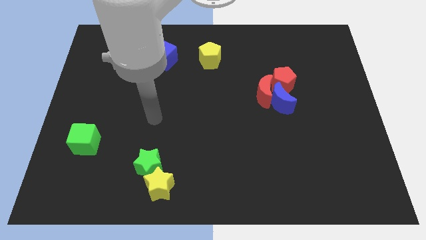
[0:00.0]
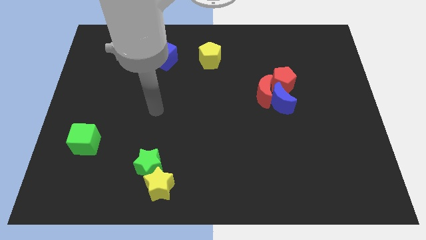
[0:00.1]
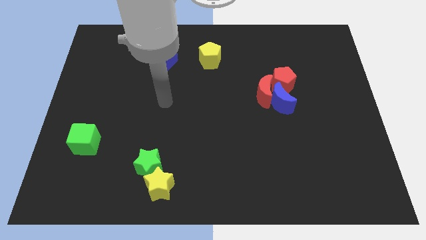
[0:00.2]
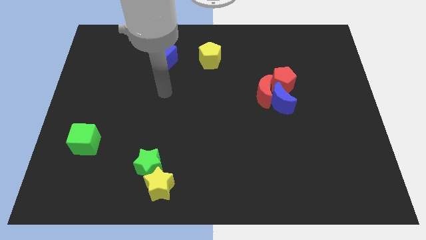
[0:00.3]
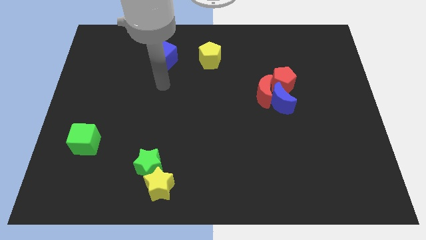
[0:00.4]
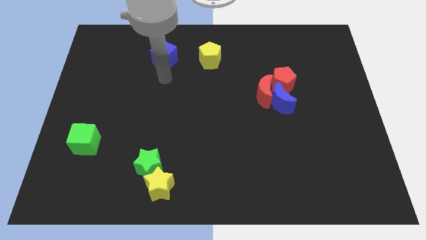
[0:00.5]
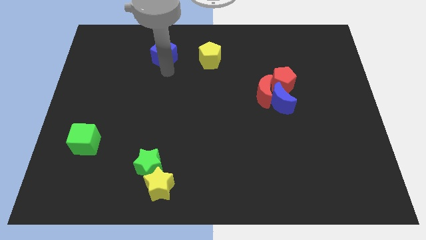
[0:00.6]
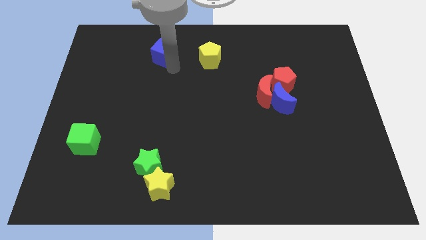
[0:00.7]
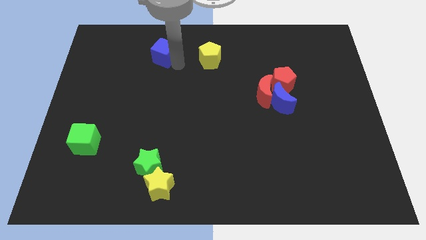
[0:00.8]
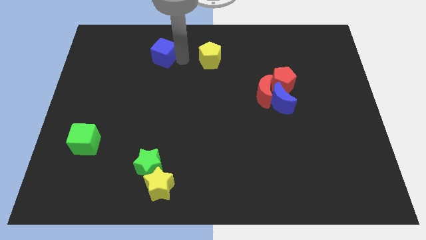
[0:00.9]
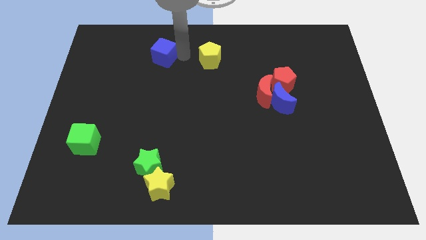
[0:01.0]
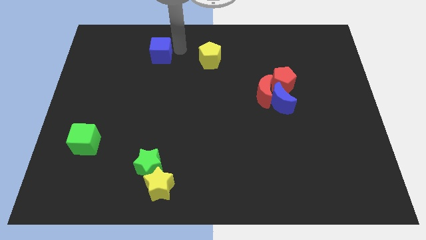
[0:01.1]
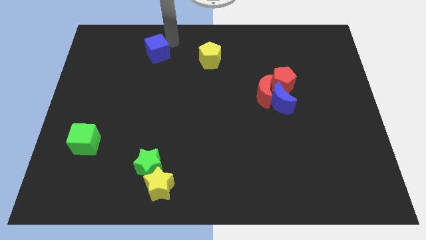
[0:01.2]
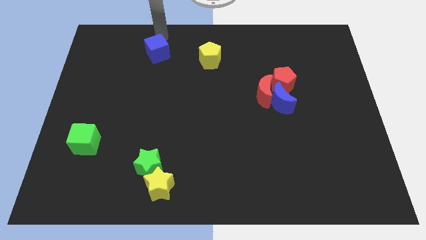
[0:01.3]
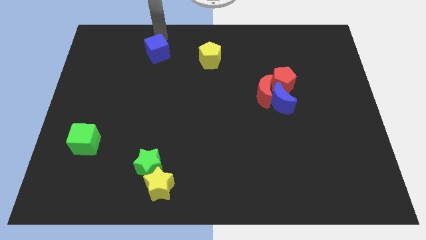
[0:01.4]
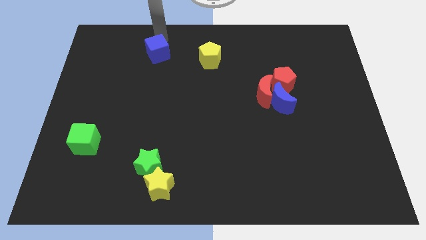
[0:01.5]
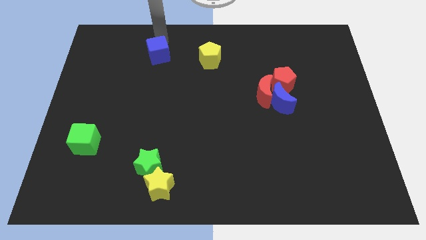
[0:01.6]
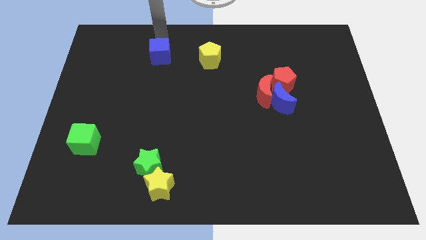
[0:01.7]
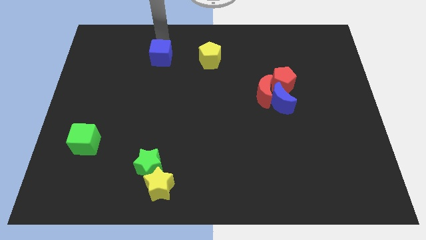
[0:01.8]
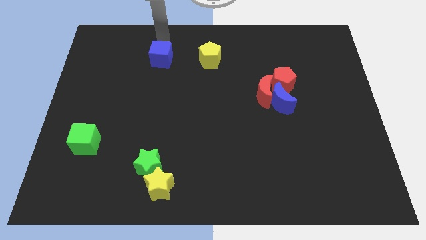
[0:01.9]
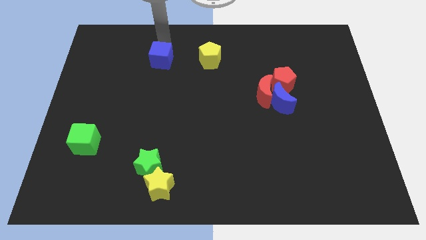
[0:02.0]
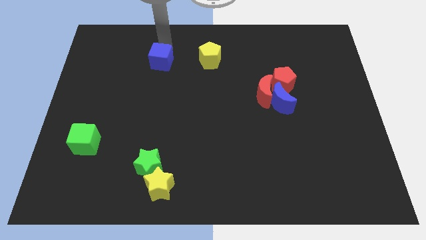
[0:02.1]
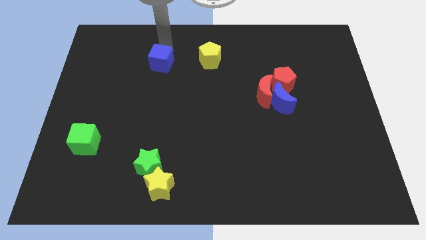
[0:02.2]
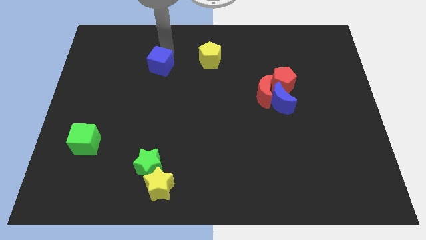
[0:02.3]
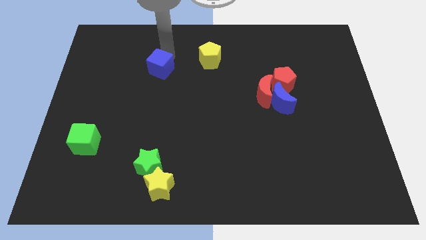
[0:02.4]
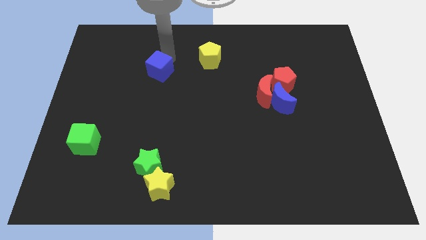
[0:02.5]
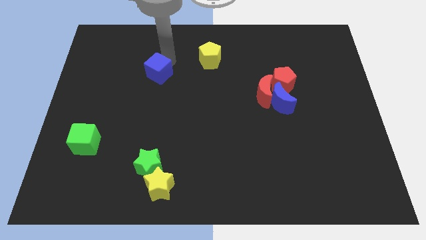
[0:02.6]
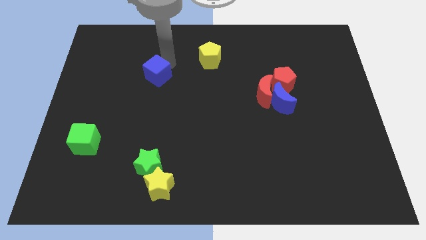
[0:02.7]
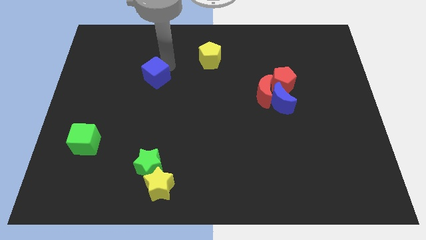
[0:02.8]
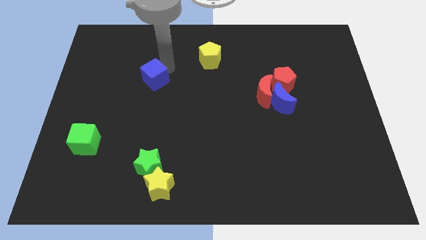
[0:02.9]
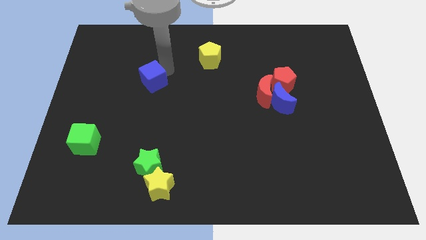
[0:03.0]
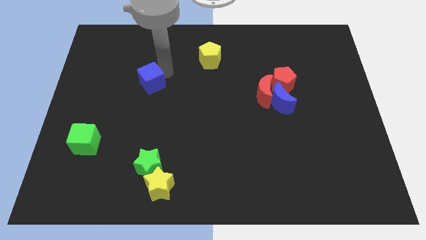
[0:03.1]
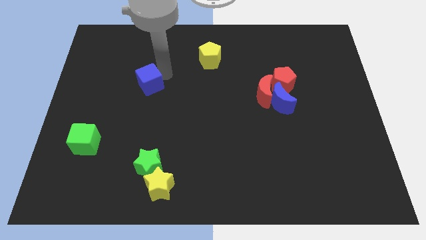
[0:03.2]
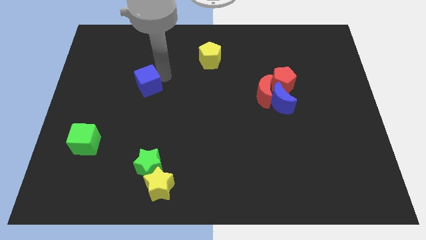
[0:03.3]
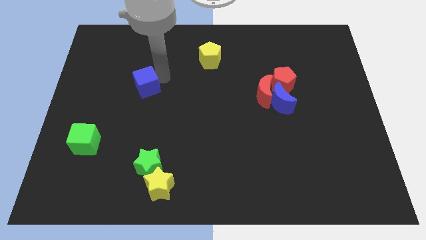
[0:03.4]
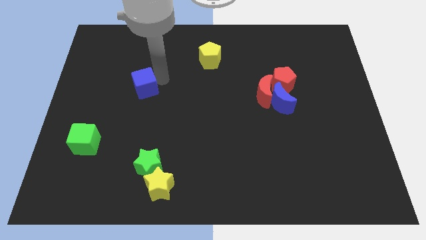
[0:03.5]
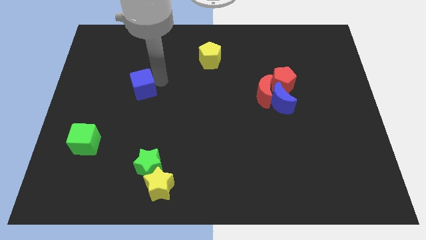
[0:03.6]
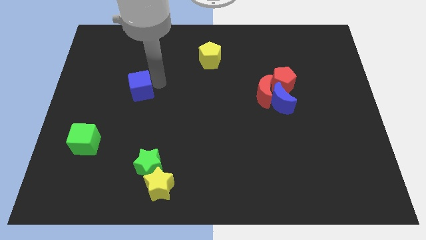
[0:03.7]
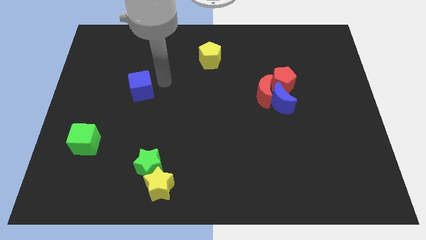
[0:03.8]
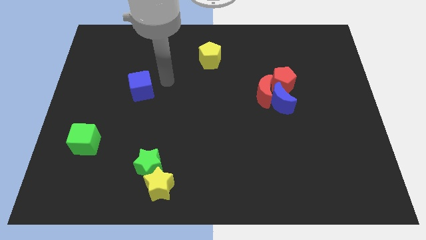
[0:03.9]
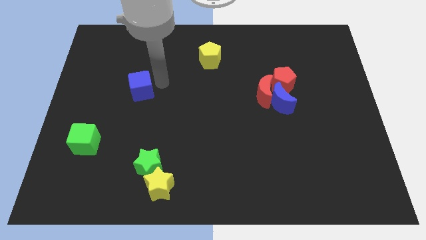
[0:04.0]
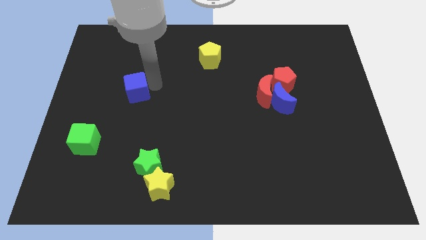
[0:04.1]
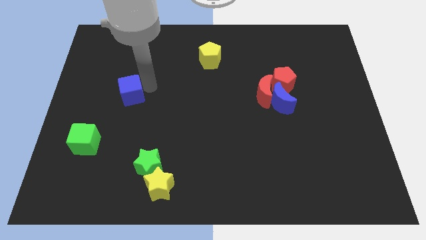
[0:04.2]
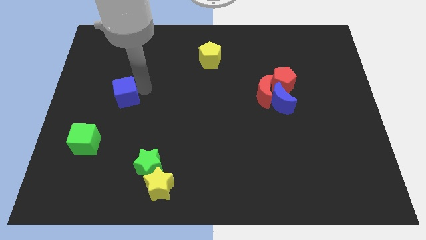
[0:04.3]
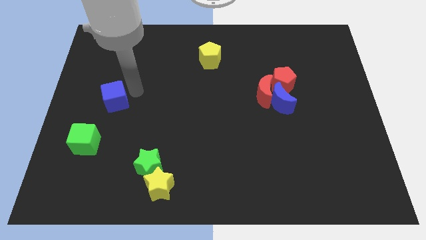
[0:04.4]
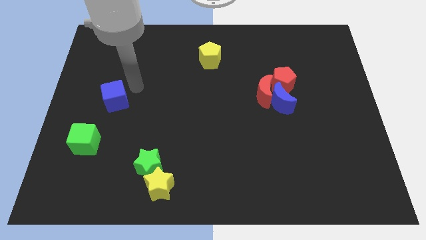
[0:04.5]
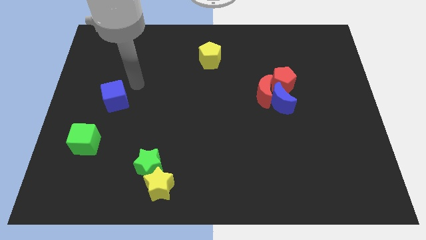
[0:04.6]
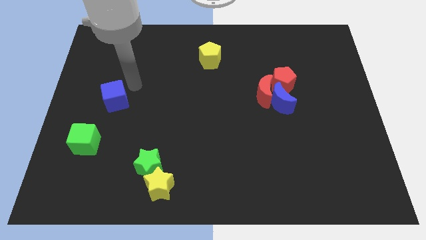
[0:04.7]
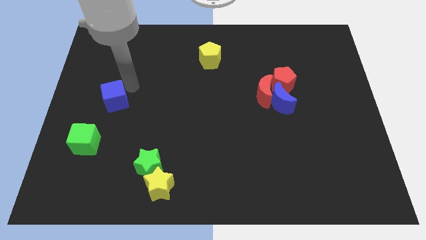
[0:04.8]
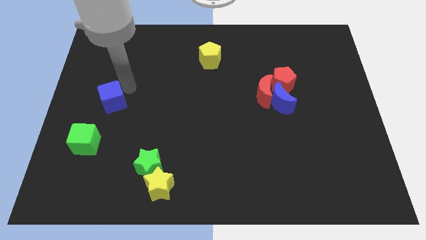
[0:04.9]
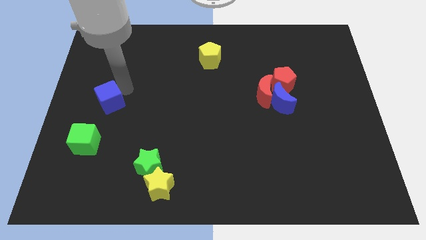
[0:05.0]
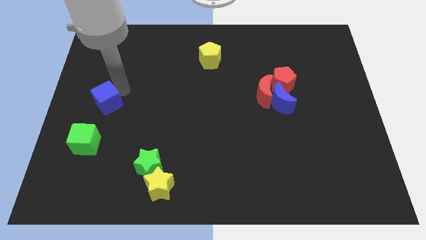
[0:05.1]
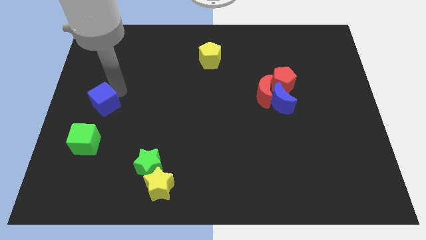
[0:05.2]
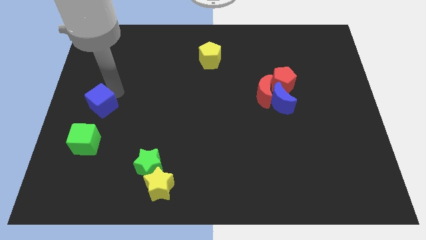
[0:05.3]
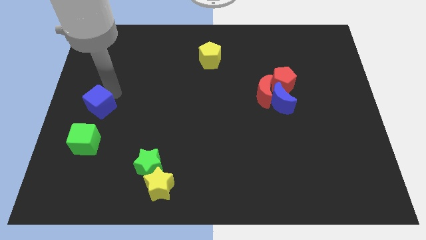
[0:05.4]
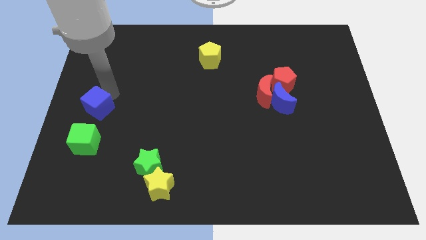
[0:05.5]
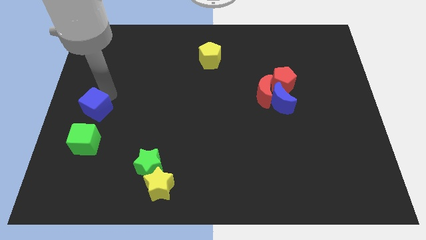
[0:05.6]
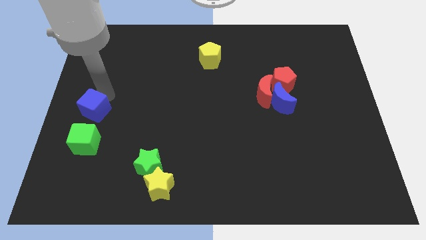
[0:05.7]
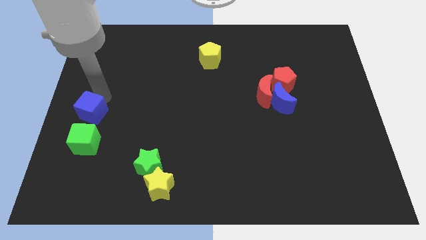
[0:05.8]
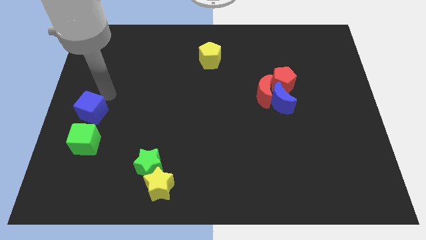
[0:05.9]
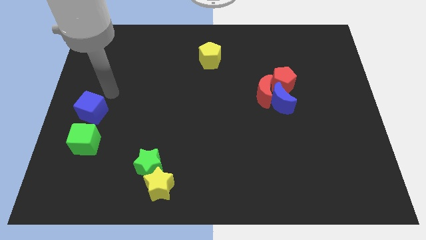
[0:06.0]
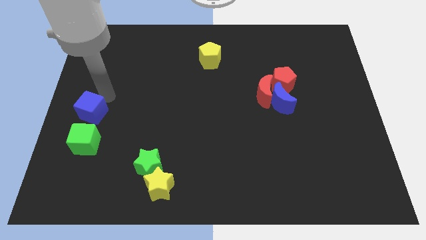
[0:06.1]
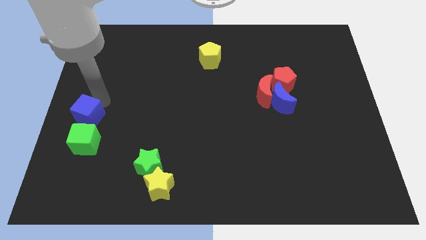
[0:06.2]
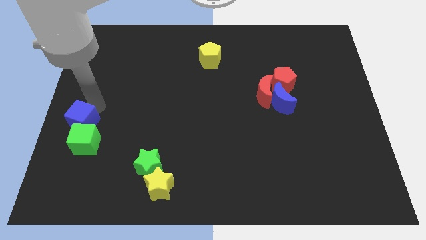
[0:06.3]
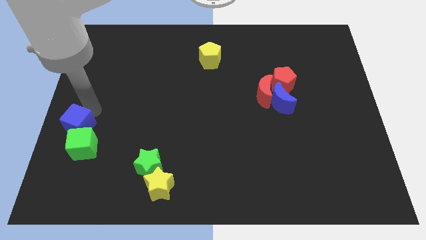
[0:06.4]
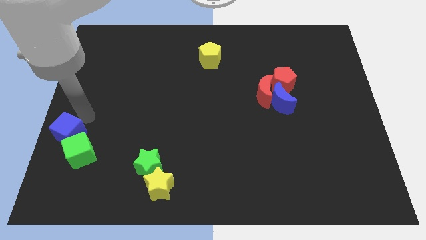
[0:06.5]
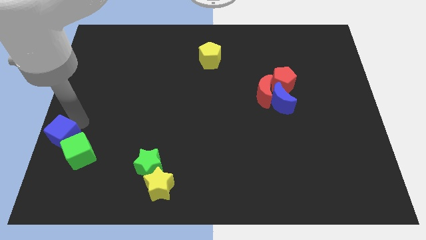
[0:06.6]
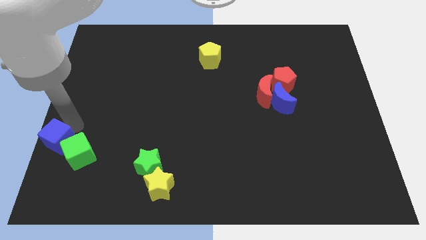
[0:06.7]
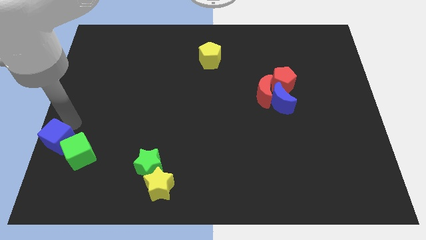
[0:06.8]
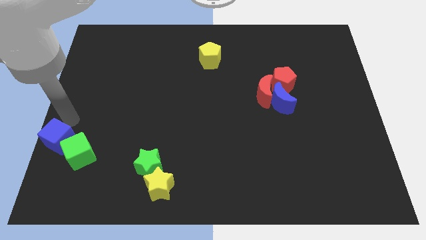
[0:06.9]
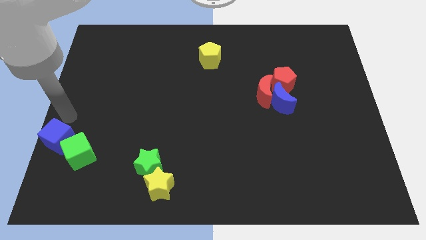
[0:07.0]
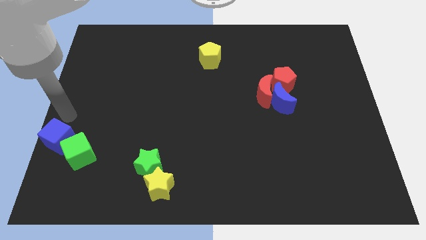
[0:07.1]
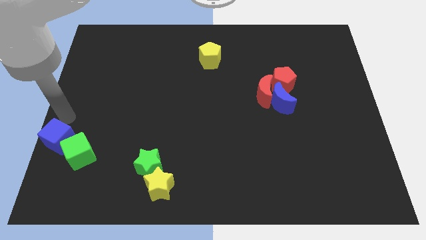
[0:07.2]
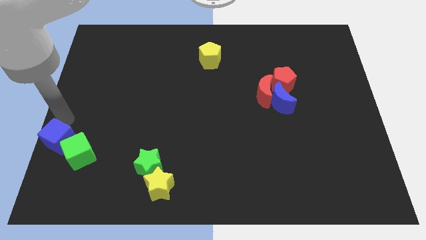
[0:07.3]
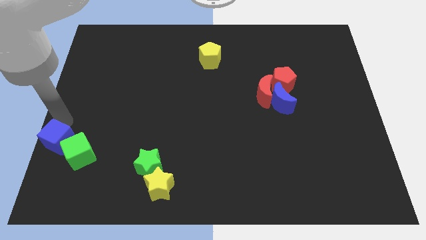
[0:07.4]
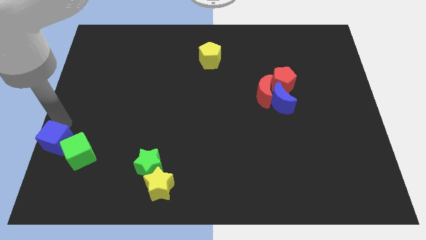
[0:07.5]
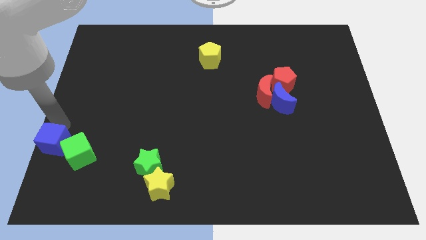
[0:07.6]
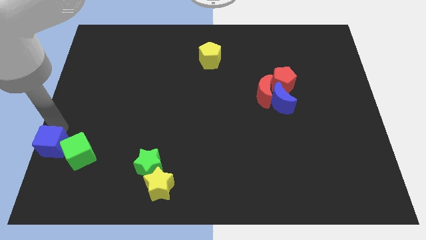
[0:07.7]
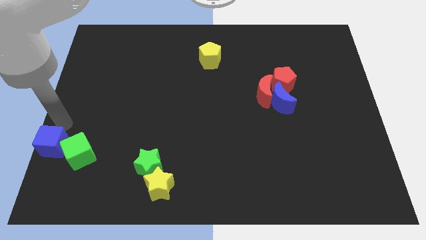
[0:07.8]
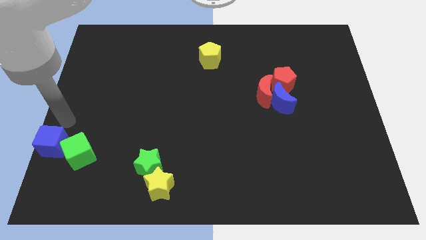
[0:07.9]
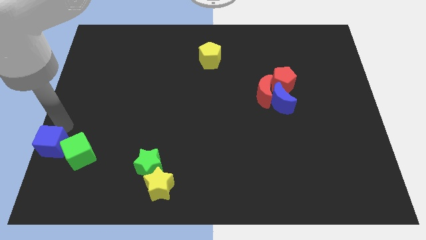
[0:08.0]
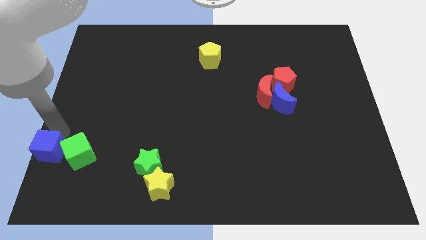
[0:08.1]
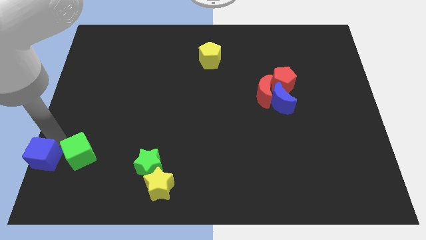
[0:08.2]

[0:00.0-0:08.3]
push the blue cube to the bottom left corner
